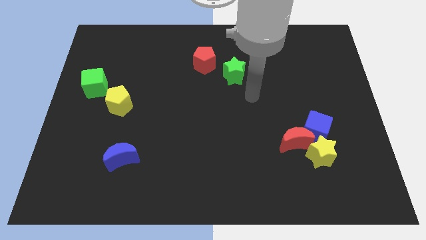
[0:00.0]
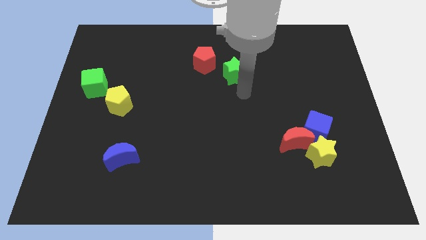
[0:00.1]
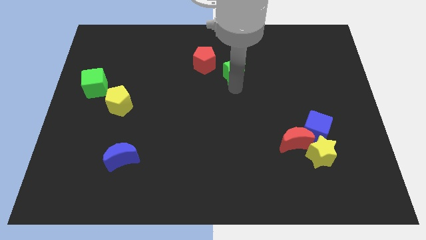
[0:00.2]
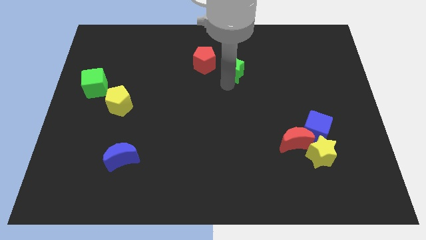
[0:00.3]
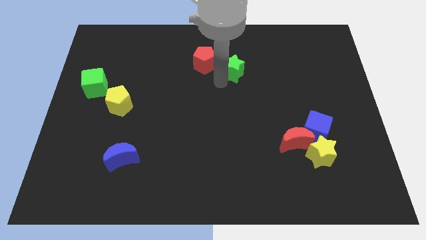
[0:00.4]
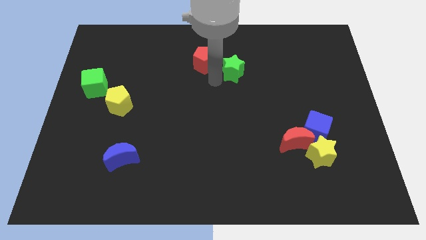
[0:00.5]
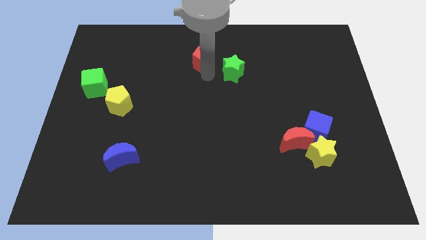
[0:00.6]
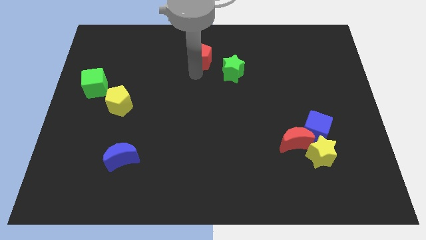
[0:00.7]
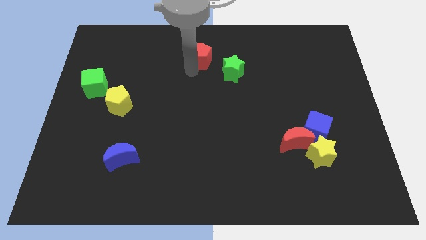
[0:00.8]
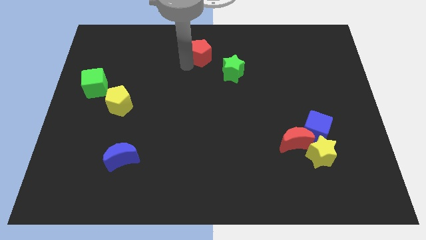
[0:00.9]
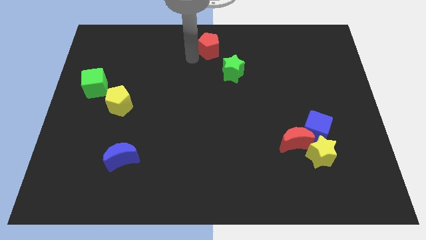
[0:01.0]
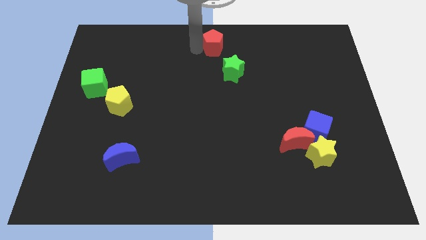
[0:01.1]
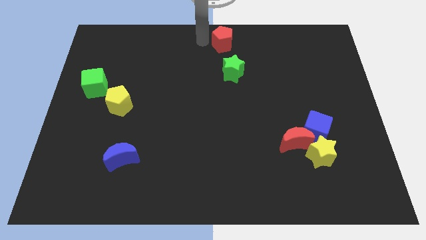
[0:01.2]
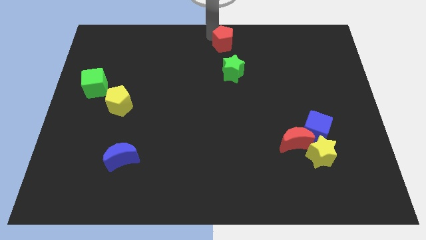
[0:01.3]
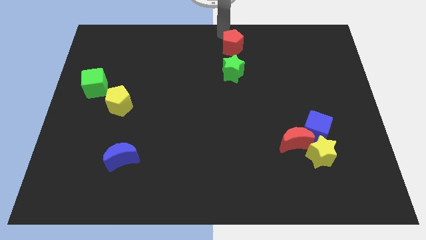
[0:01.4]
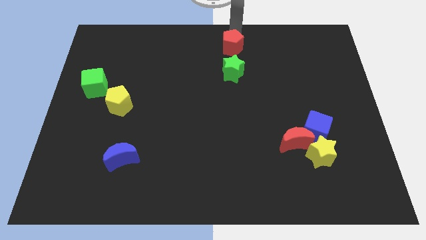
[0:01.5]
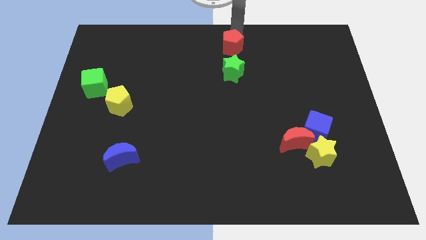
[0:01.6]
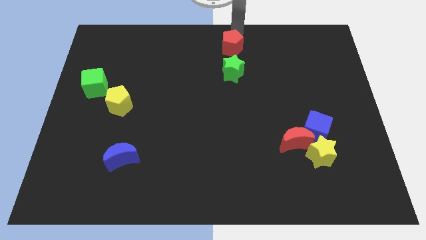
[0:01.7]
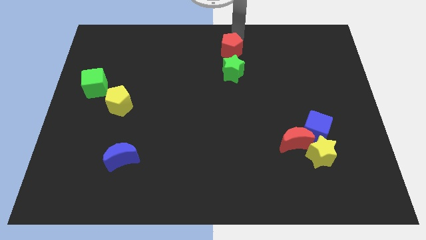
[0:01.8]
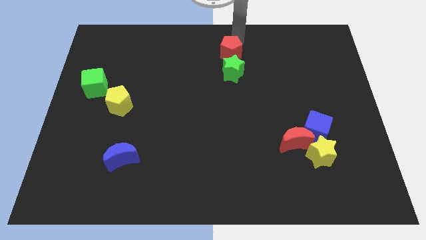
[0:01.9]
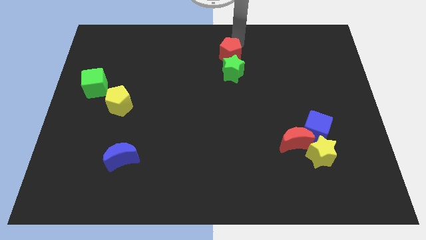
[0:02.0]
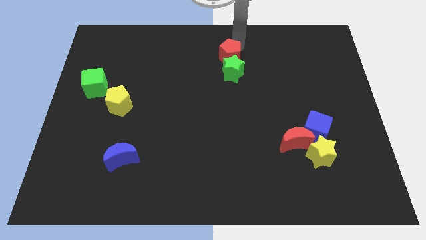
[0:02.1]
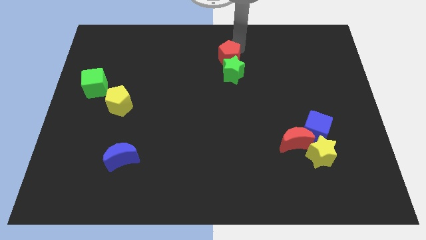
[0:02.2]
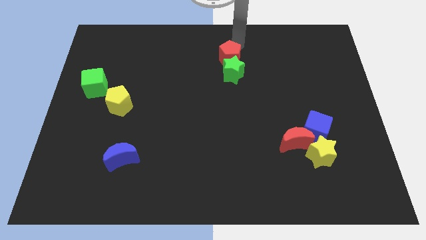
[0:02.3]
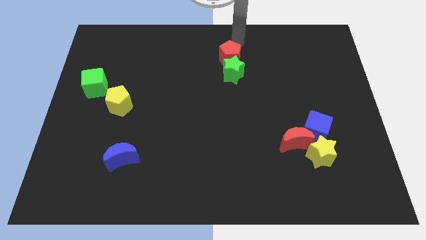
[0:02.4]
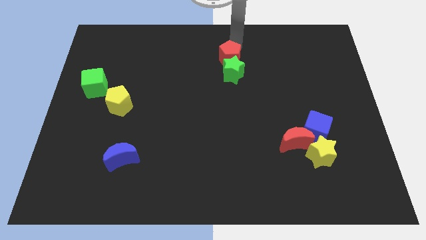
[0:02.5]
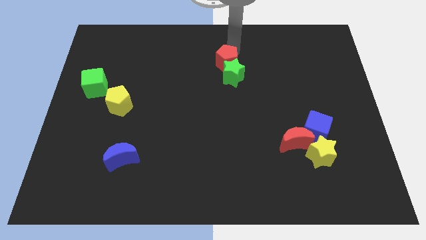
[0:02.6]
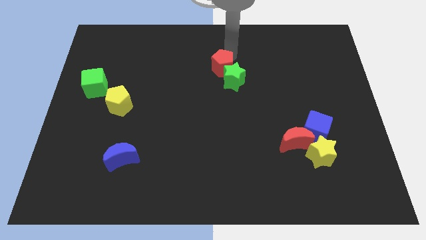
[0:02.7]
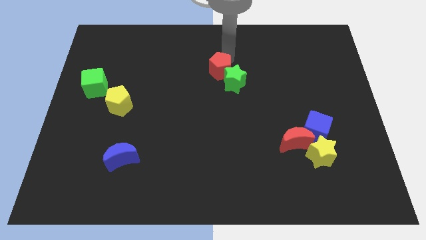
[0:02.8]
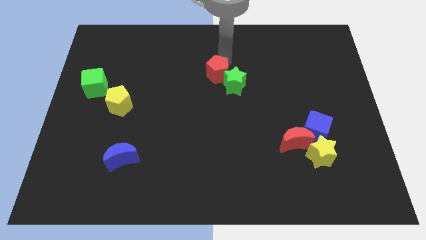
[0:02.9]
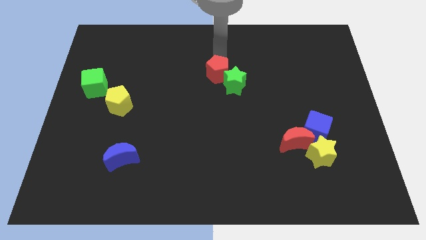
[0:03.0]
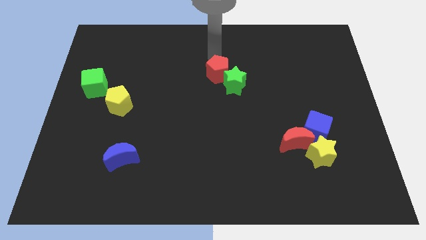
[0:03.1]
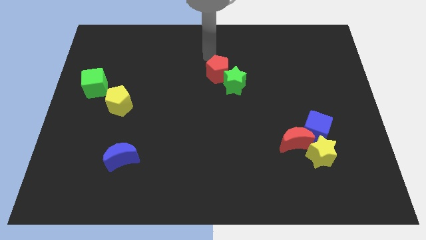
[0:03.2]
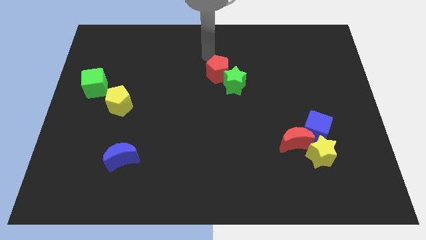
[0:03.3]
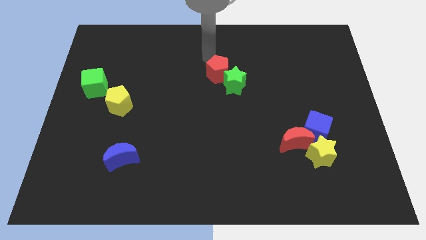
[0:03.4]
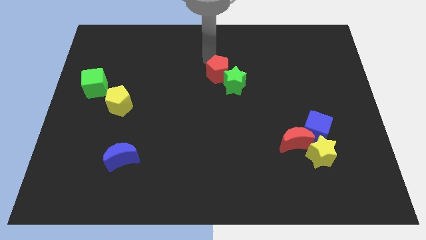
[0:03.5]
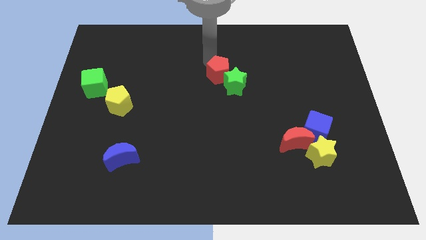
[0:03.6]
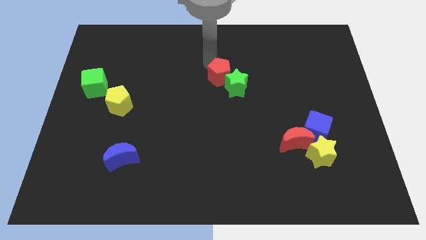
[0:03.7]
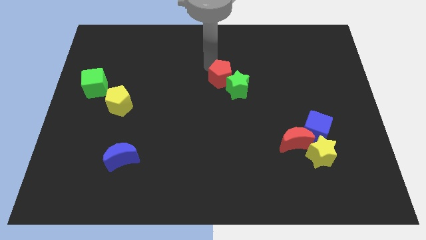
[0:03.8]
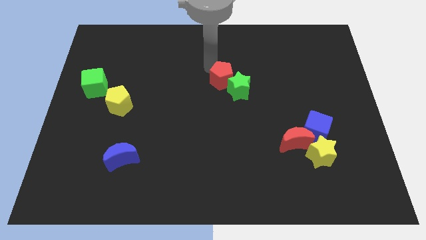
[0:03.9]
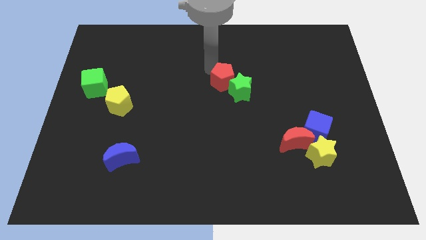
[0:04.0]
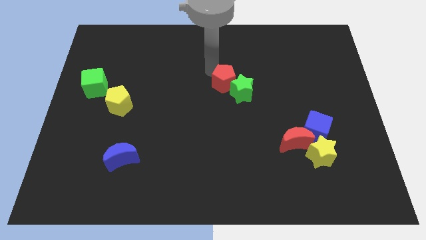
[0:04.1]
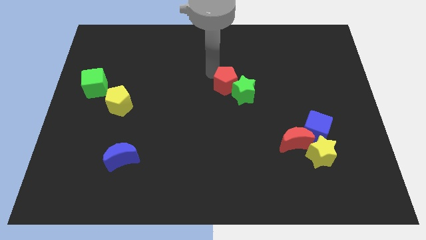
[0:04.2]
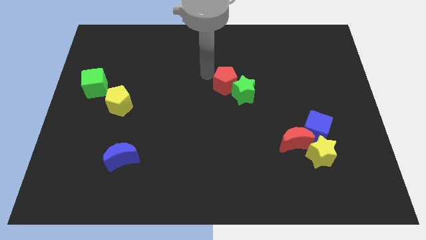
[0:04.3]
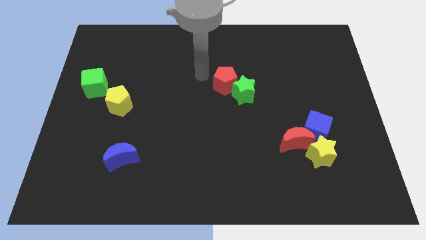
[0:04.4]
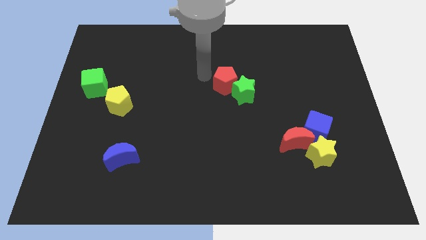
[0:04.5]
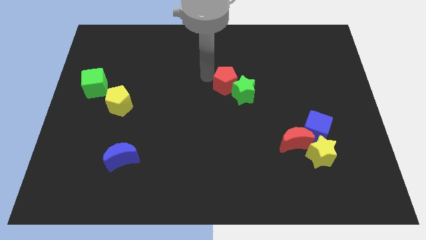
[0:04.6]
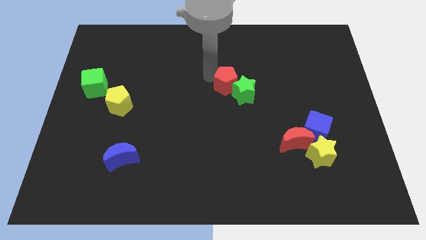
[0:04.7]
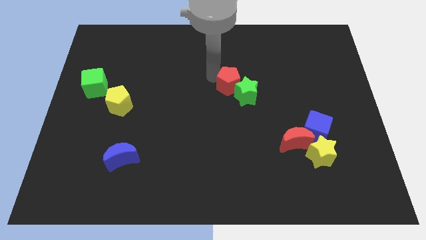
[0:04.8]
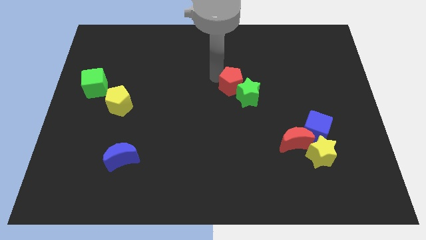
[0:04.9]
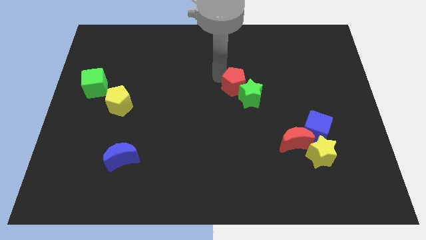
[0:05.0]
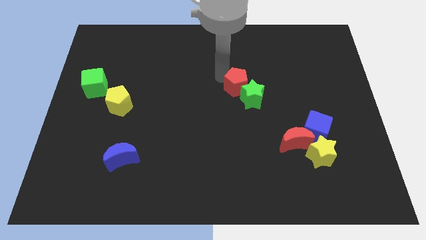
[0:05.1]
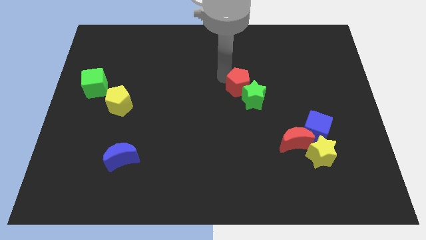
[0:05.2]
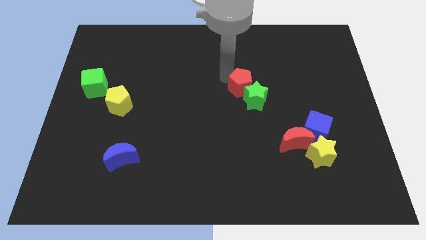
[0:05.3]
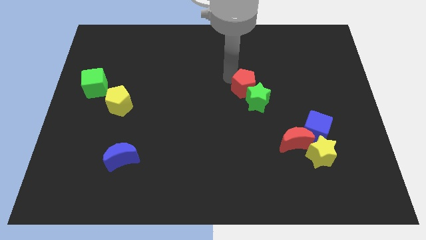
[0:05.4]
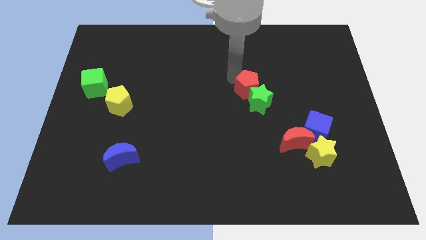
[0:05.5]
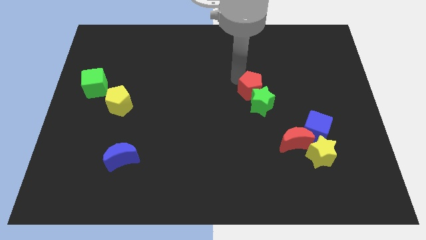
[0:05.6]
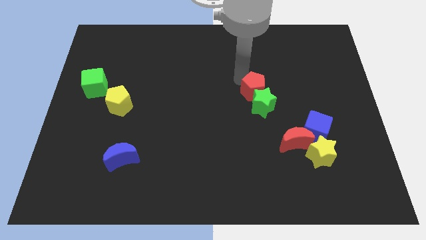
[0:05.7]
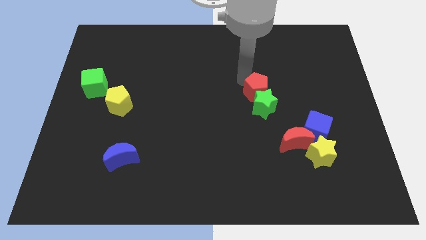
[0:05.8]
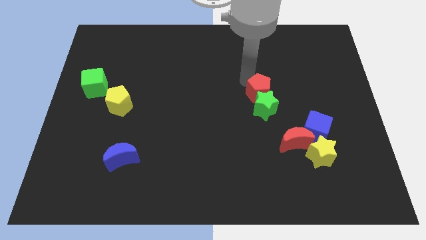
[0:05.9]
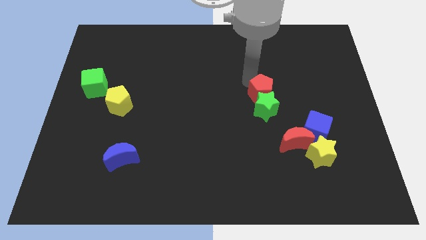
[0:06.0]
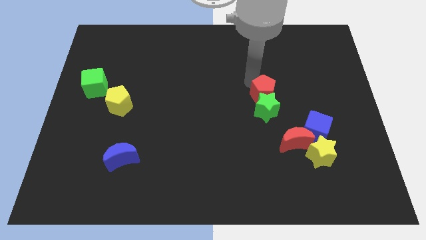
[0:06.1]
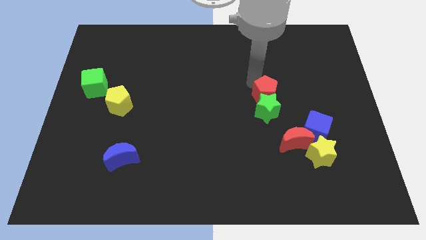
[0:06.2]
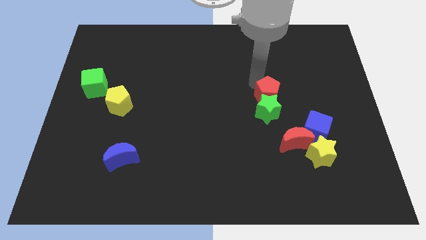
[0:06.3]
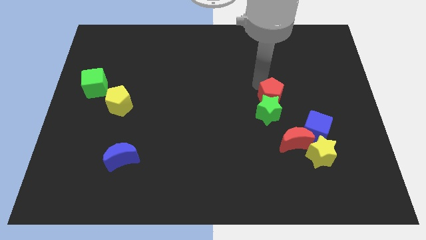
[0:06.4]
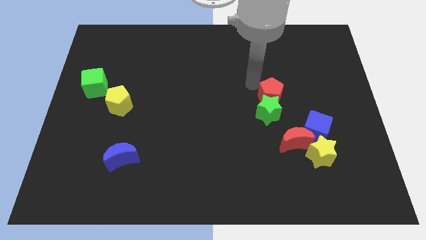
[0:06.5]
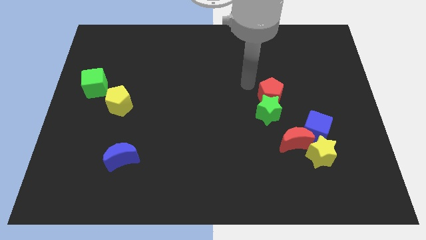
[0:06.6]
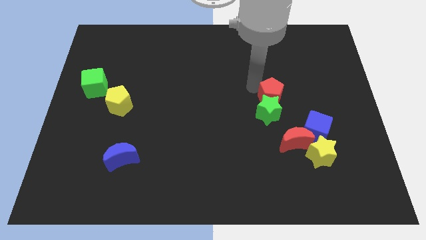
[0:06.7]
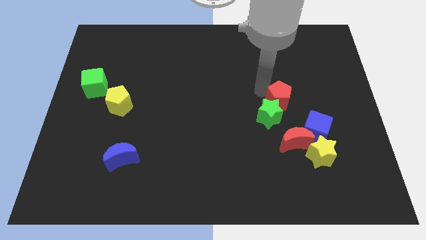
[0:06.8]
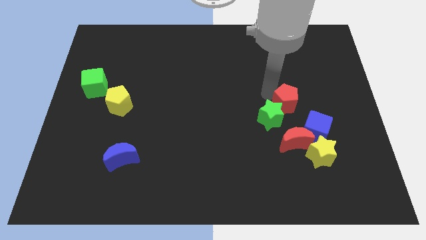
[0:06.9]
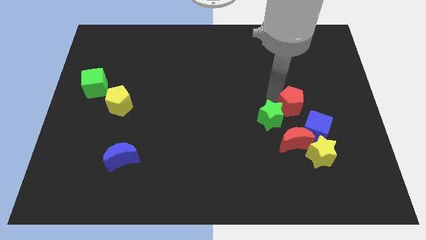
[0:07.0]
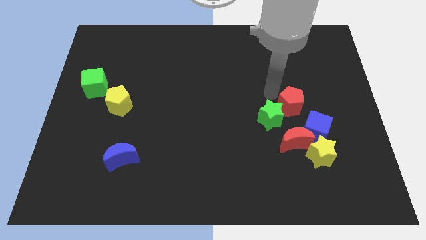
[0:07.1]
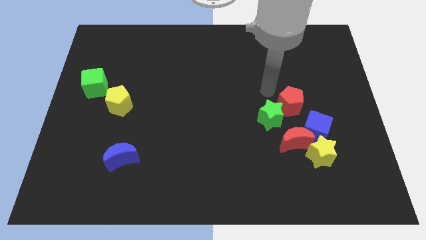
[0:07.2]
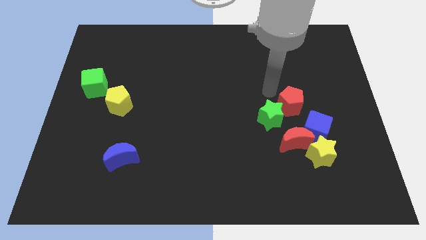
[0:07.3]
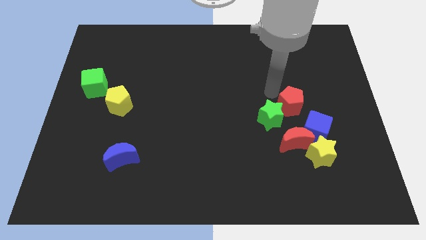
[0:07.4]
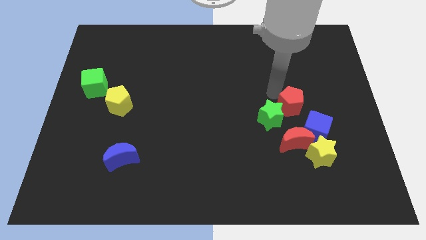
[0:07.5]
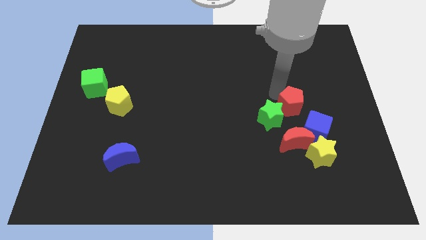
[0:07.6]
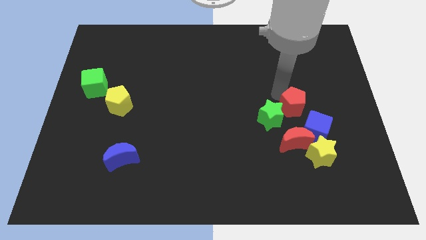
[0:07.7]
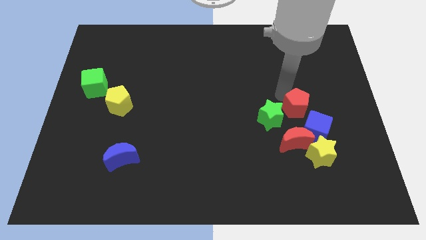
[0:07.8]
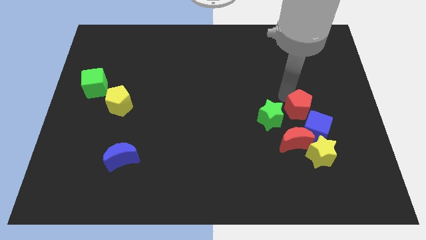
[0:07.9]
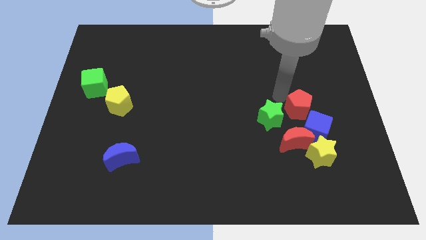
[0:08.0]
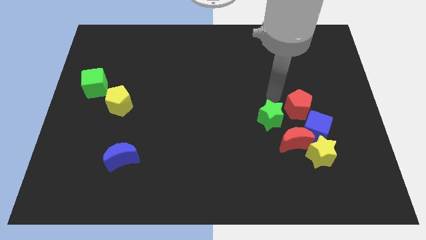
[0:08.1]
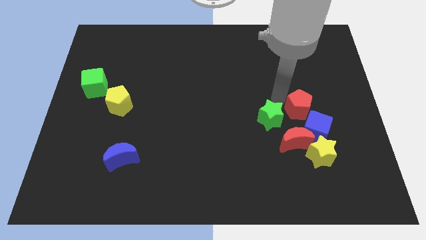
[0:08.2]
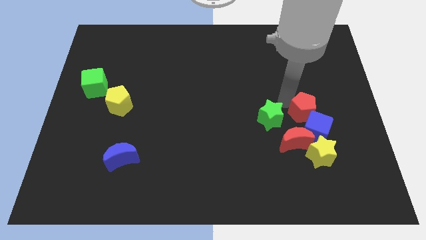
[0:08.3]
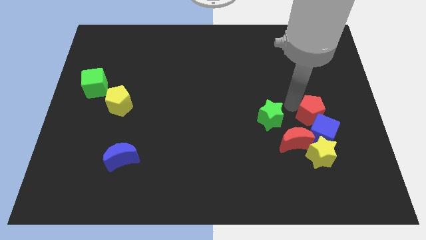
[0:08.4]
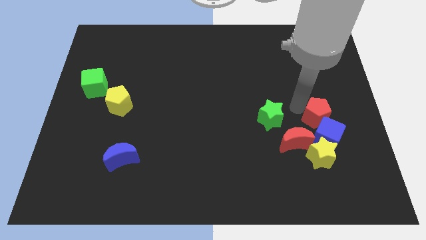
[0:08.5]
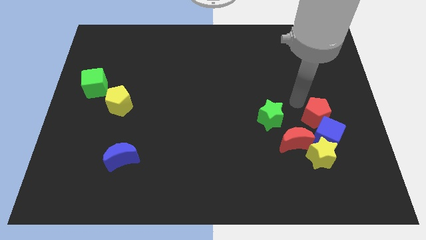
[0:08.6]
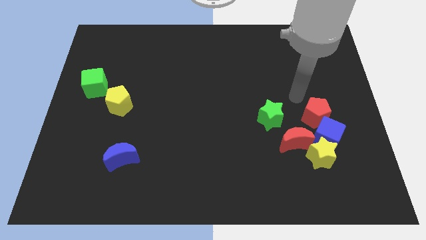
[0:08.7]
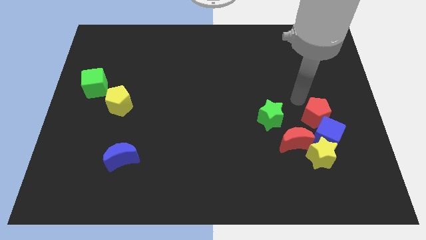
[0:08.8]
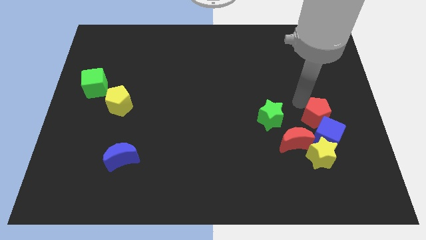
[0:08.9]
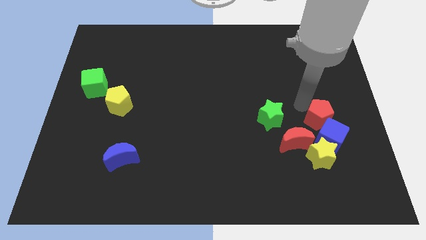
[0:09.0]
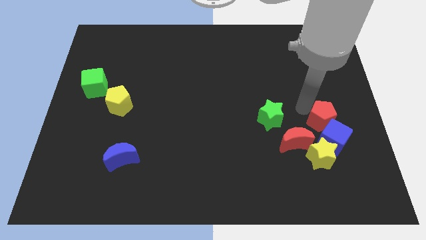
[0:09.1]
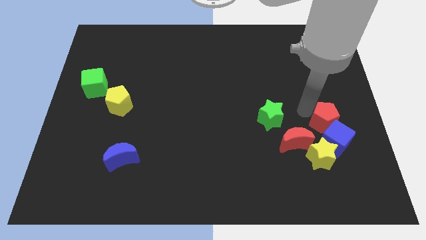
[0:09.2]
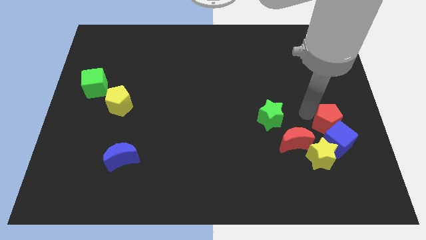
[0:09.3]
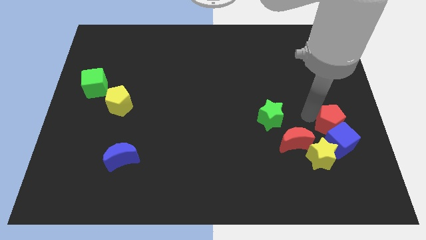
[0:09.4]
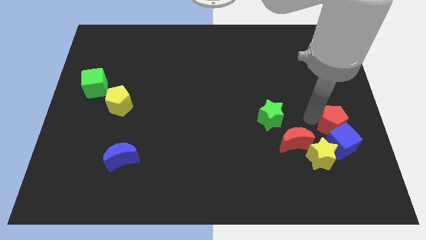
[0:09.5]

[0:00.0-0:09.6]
put the red pentagon to the right side of the red moon
